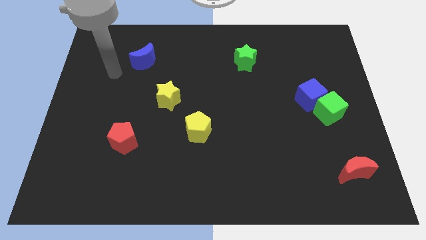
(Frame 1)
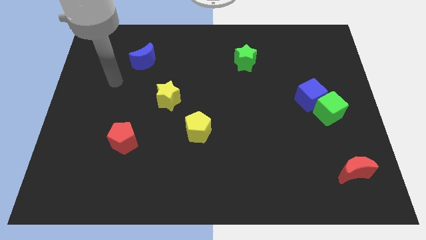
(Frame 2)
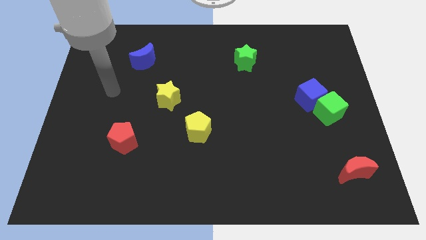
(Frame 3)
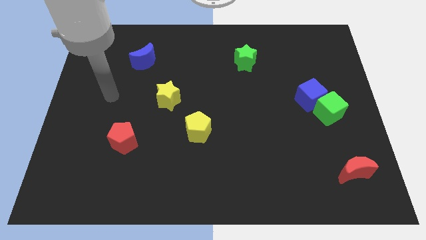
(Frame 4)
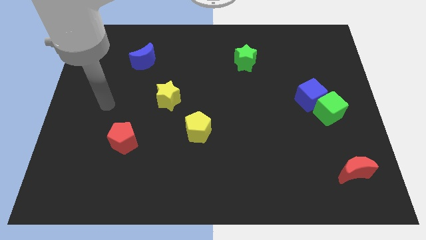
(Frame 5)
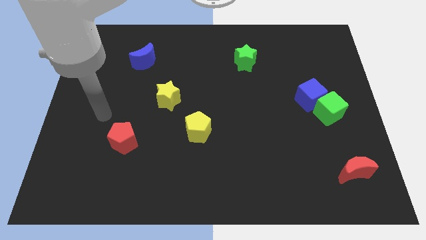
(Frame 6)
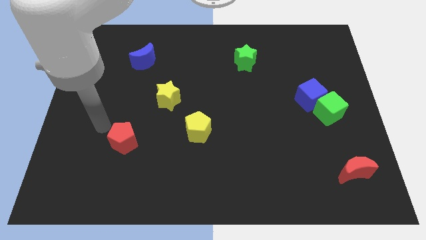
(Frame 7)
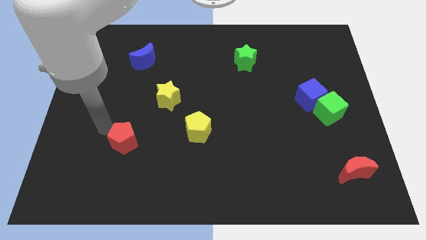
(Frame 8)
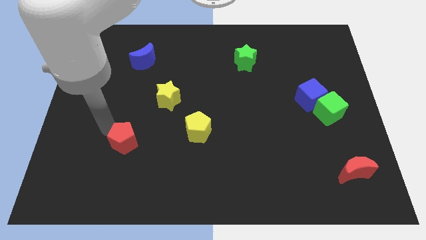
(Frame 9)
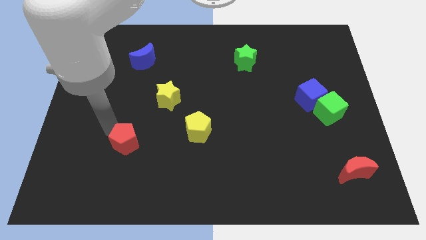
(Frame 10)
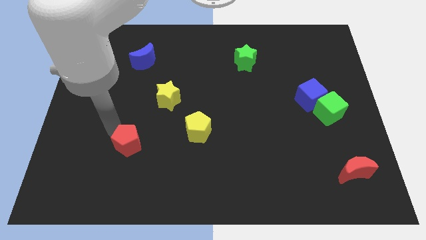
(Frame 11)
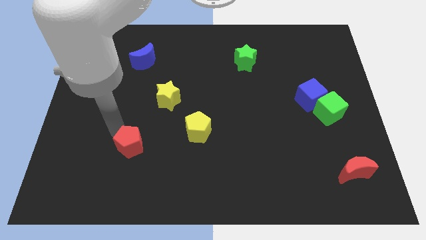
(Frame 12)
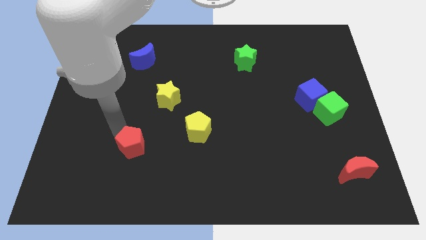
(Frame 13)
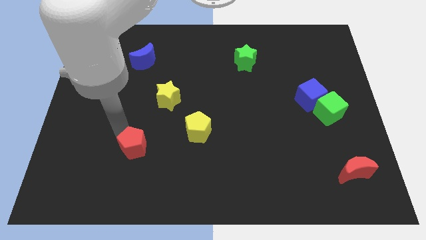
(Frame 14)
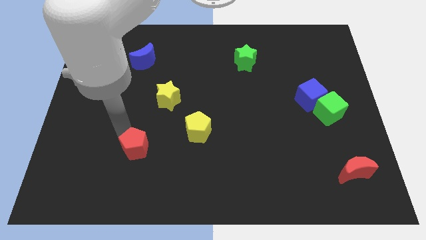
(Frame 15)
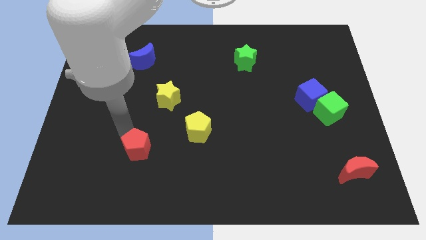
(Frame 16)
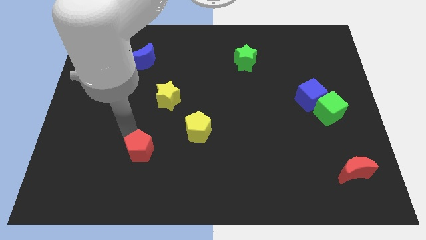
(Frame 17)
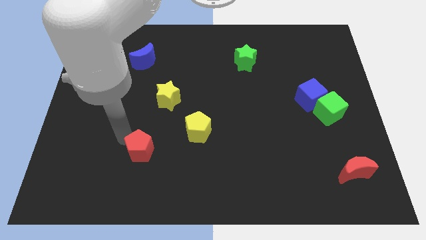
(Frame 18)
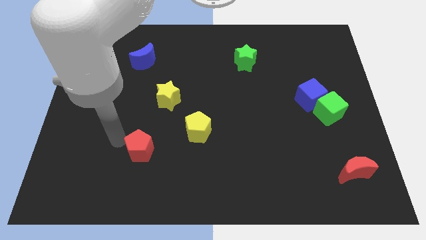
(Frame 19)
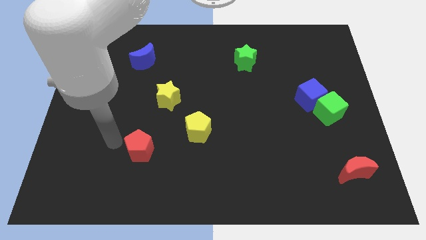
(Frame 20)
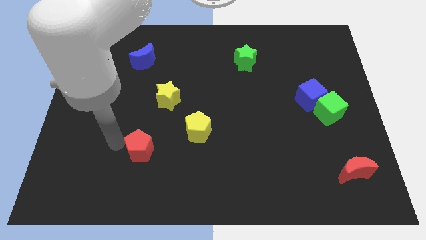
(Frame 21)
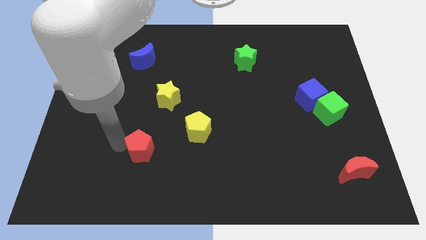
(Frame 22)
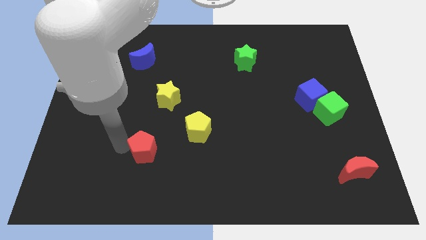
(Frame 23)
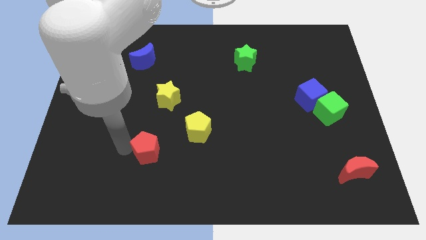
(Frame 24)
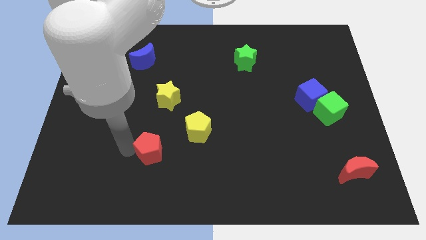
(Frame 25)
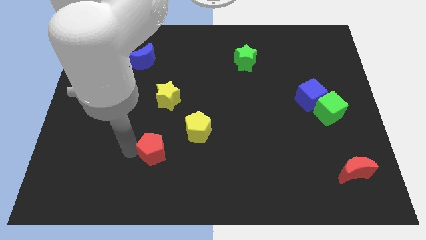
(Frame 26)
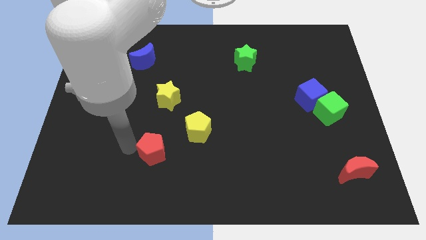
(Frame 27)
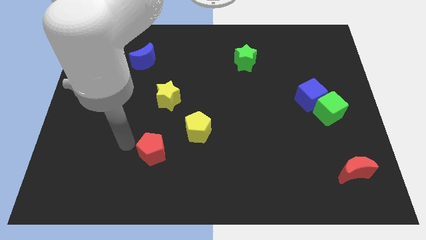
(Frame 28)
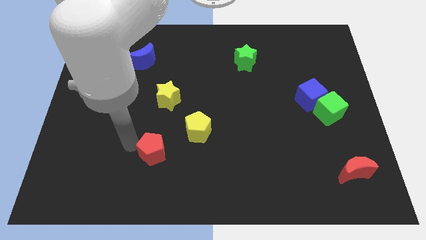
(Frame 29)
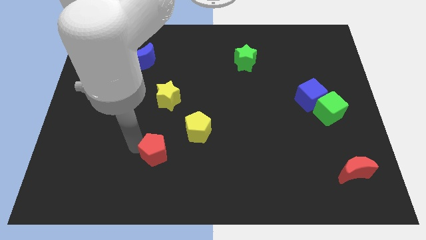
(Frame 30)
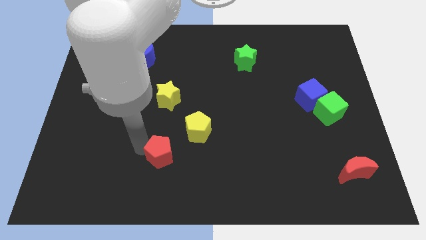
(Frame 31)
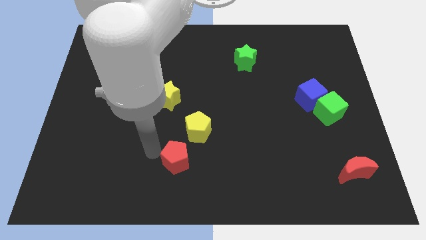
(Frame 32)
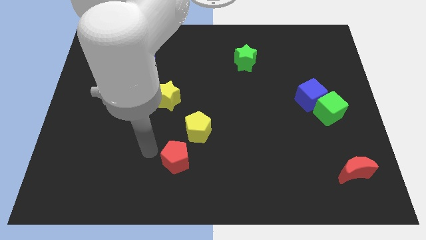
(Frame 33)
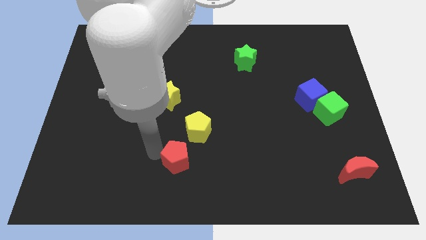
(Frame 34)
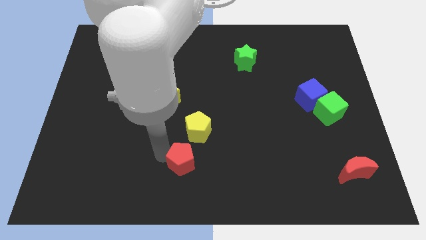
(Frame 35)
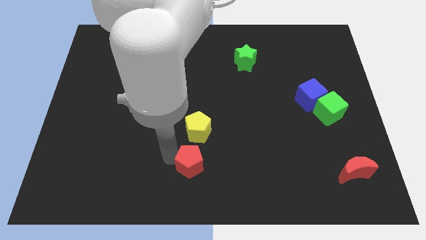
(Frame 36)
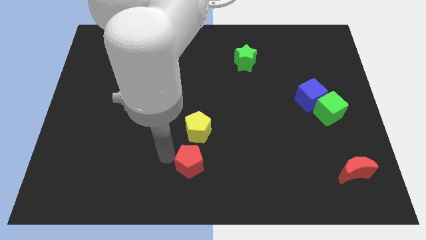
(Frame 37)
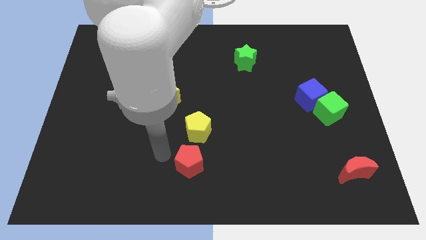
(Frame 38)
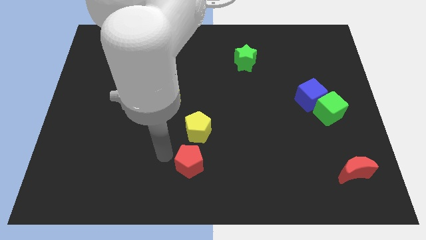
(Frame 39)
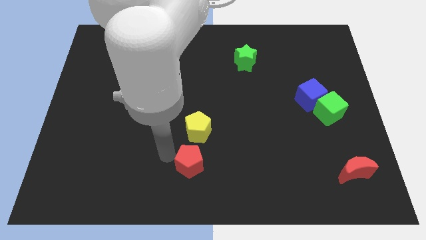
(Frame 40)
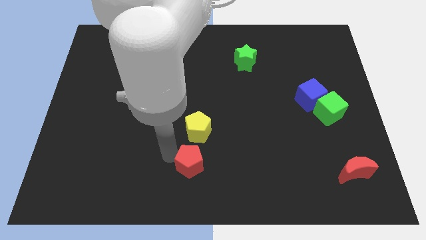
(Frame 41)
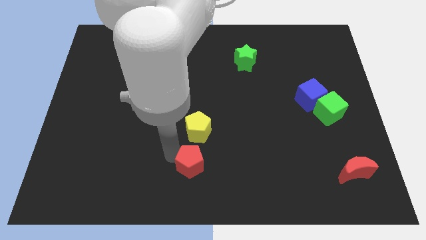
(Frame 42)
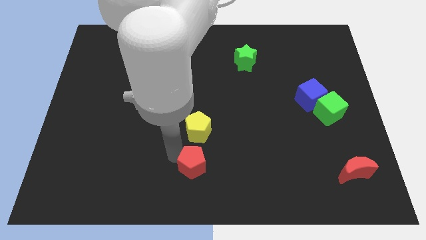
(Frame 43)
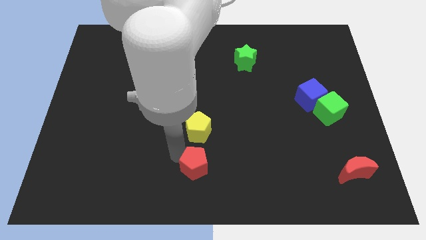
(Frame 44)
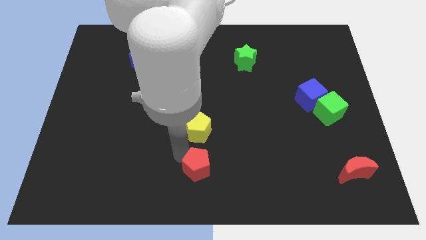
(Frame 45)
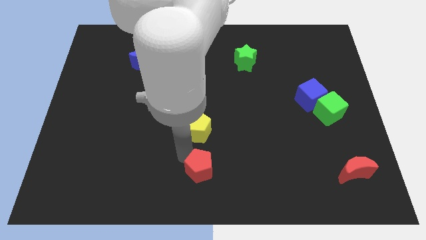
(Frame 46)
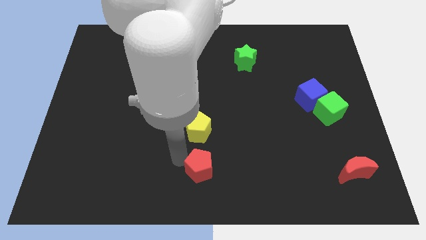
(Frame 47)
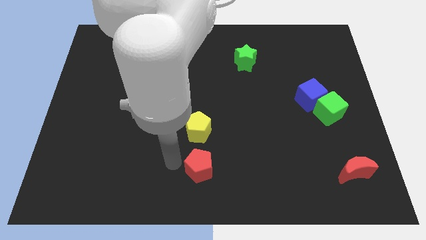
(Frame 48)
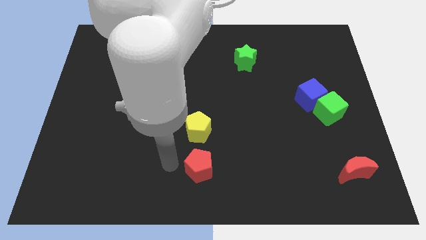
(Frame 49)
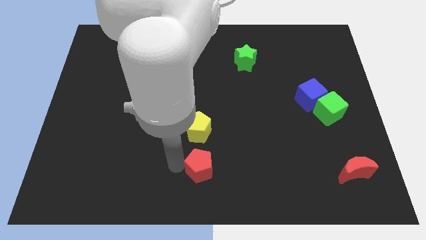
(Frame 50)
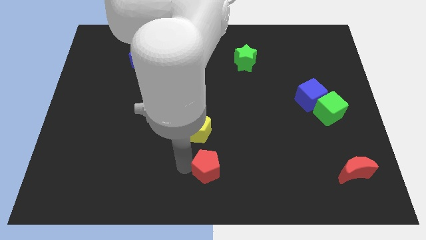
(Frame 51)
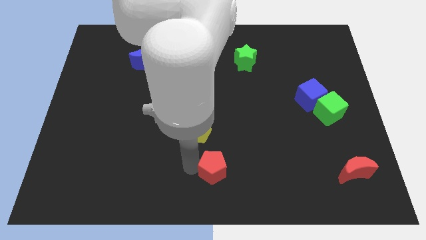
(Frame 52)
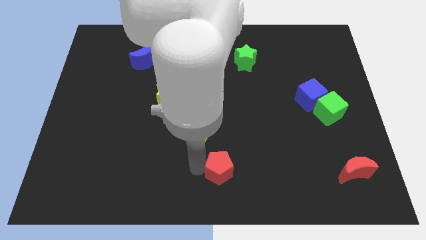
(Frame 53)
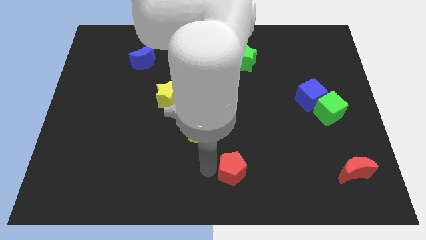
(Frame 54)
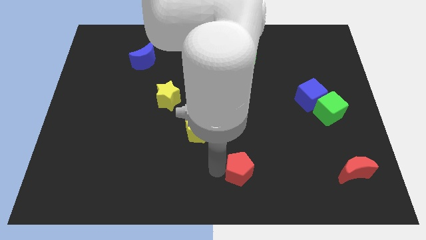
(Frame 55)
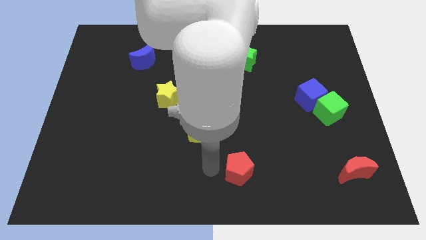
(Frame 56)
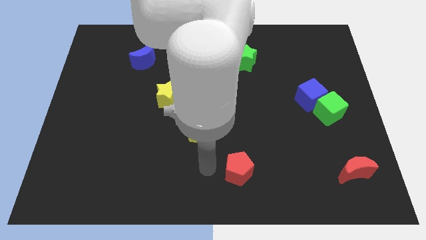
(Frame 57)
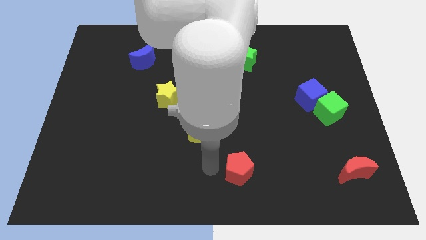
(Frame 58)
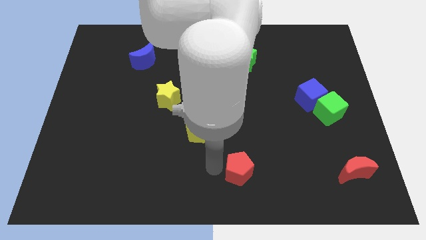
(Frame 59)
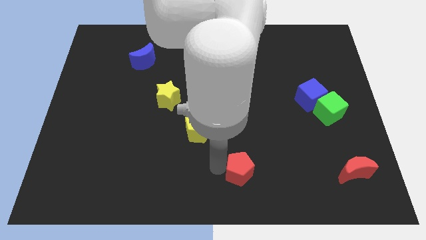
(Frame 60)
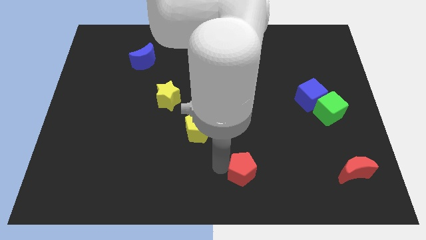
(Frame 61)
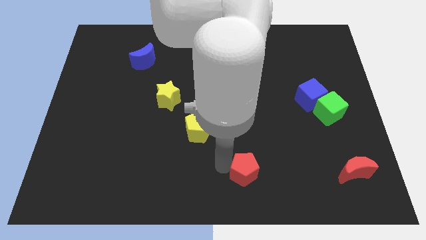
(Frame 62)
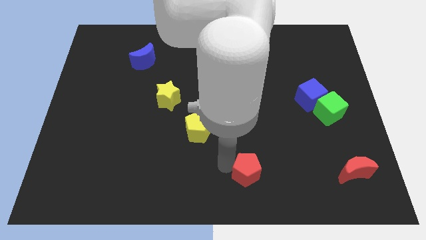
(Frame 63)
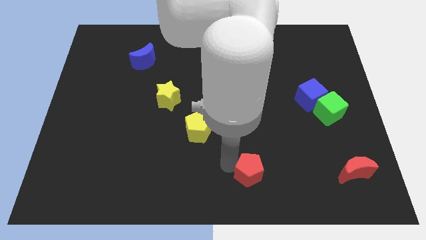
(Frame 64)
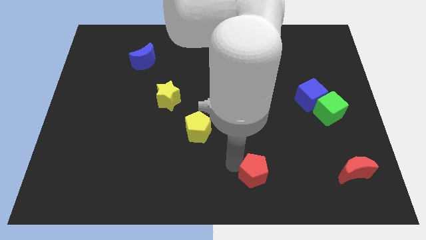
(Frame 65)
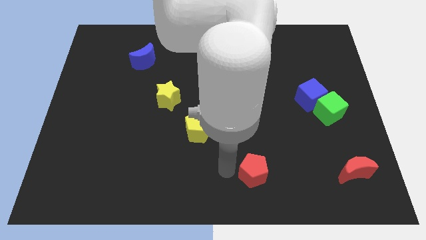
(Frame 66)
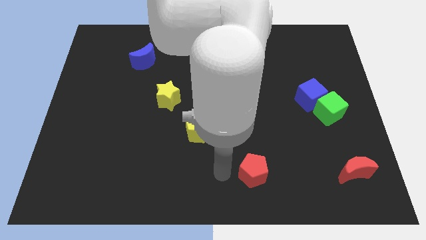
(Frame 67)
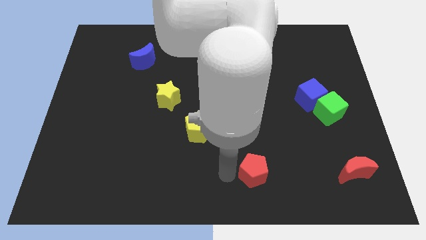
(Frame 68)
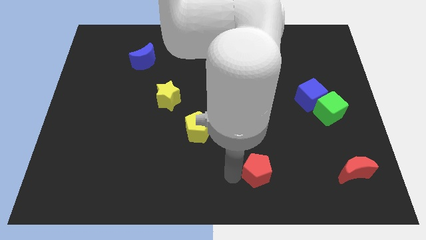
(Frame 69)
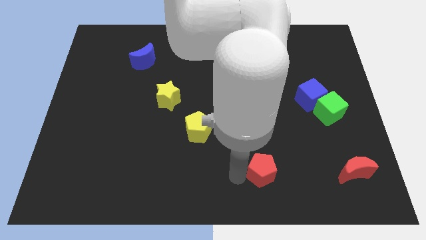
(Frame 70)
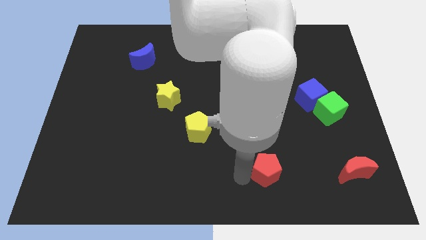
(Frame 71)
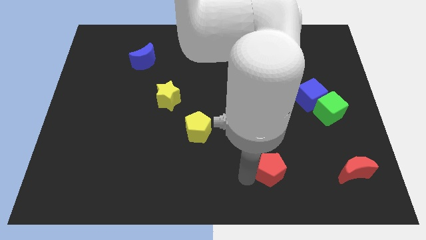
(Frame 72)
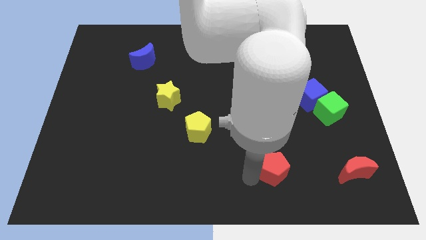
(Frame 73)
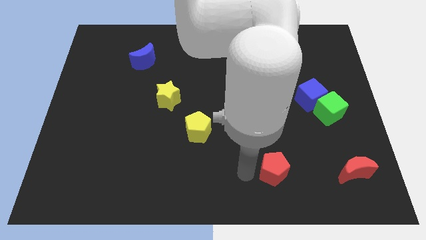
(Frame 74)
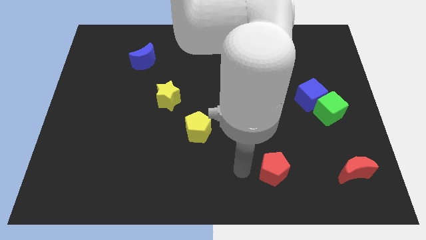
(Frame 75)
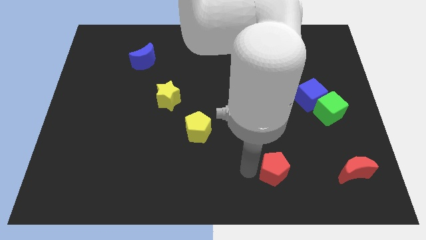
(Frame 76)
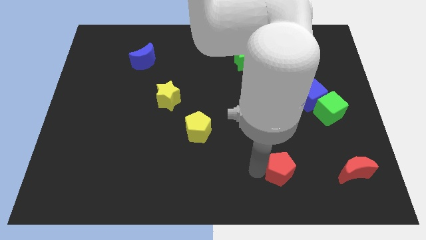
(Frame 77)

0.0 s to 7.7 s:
push the red pentagon left of the red moon
